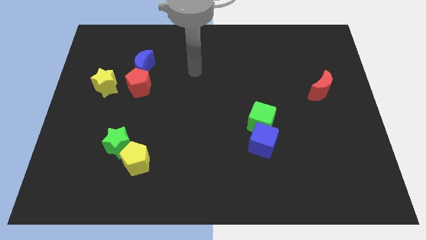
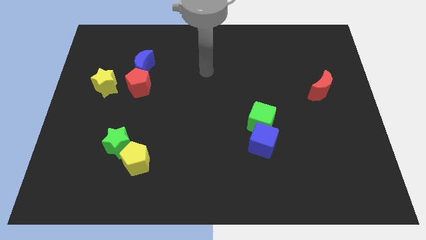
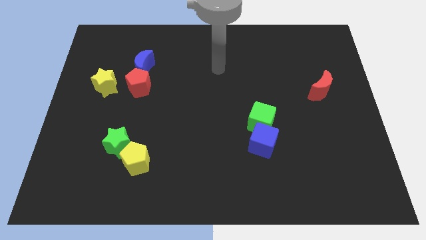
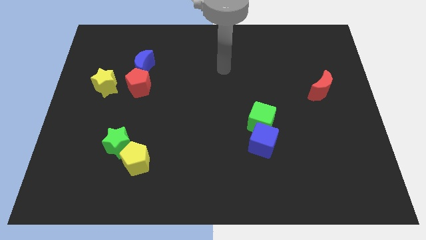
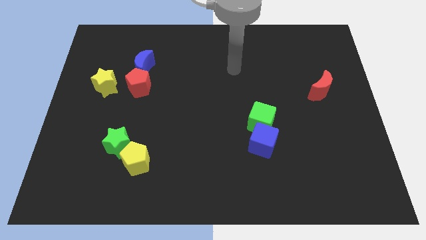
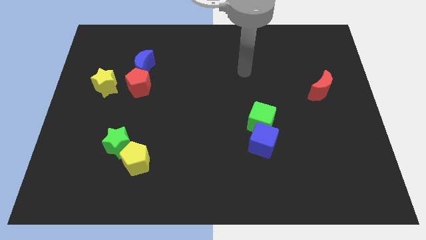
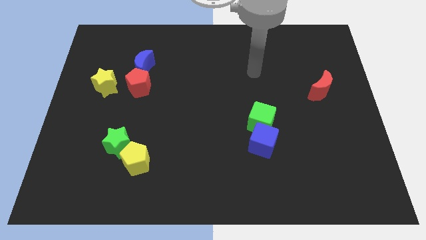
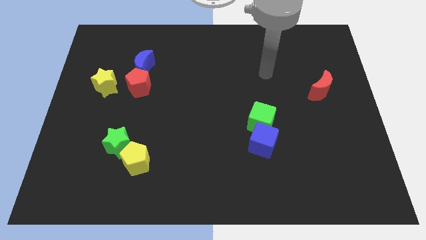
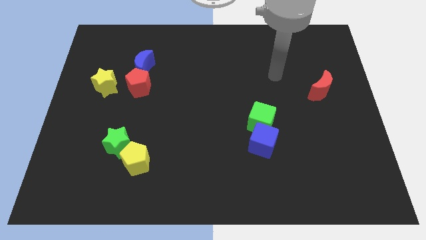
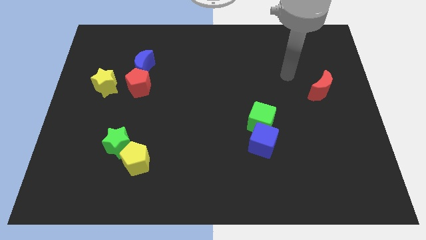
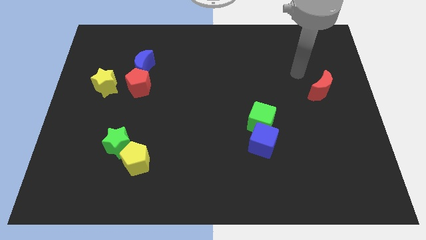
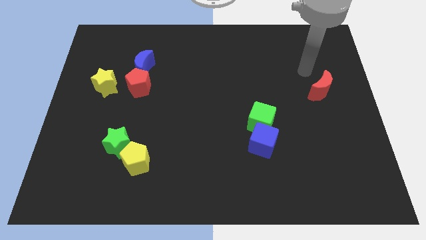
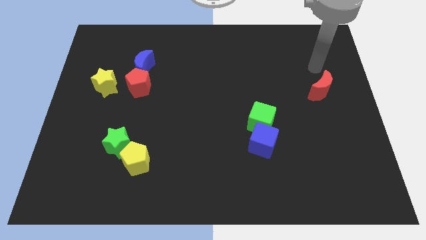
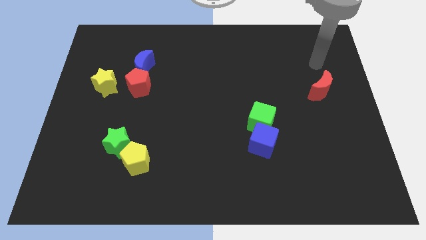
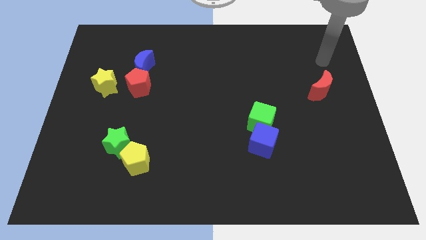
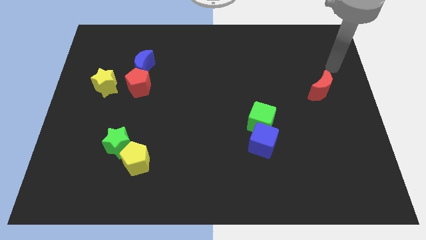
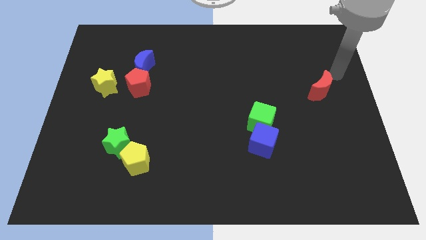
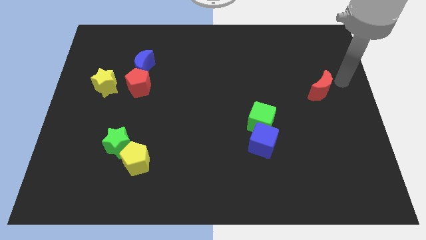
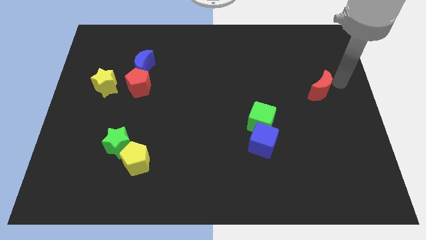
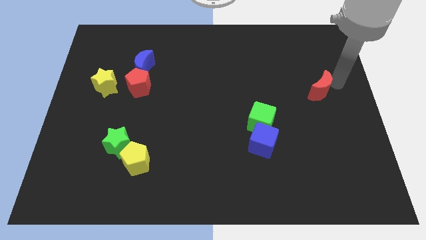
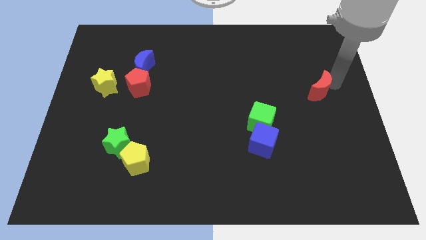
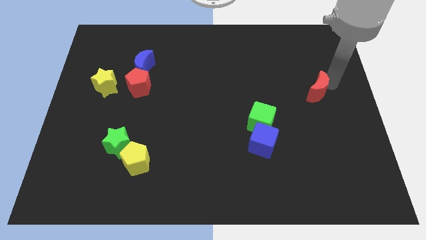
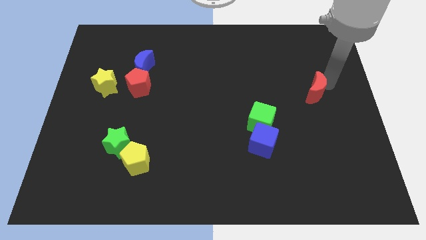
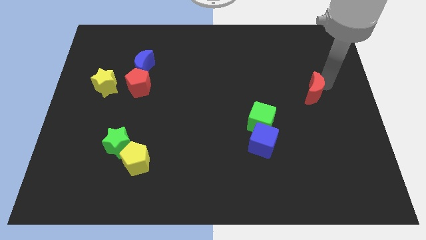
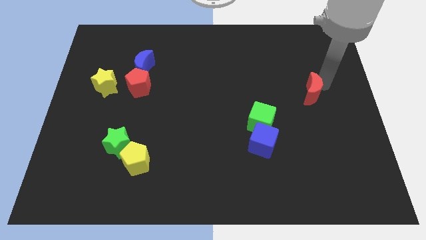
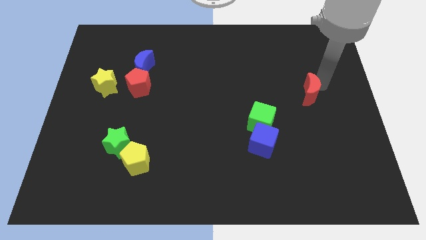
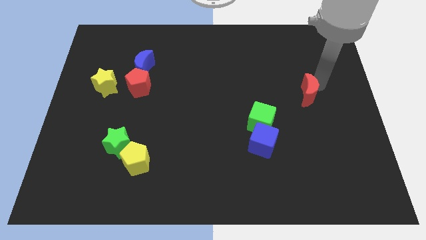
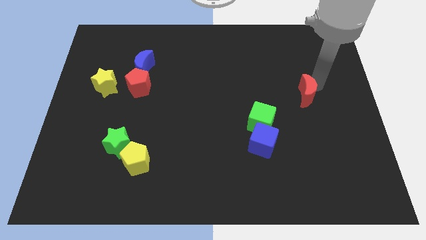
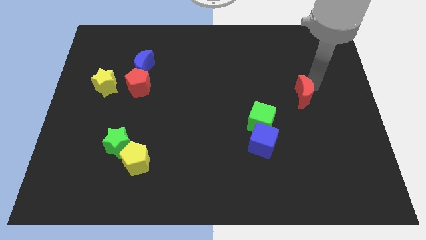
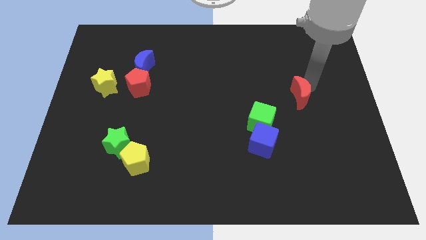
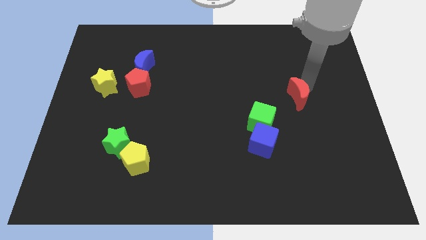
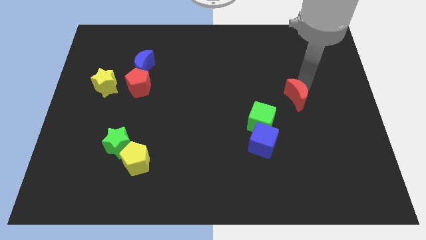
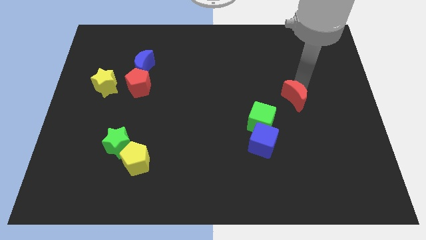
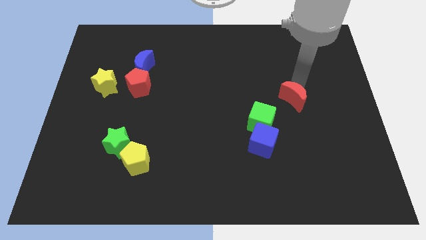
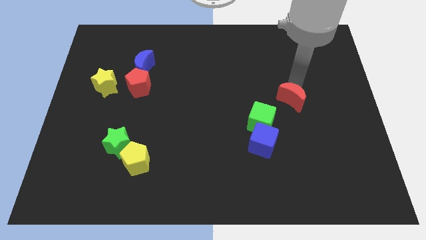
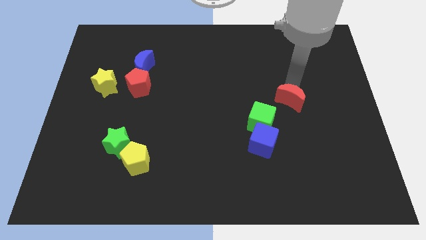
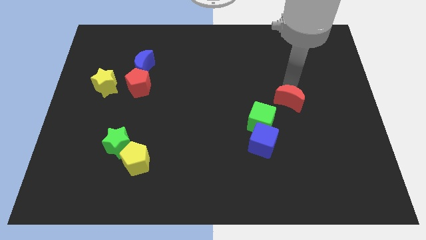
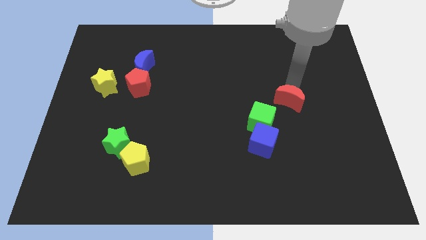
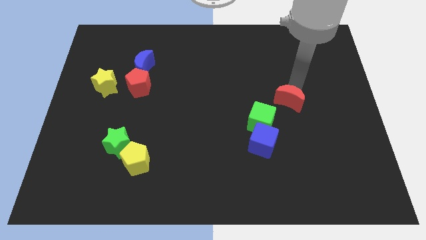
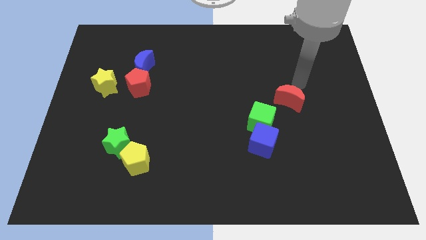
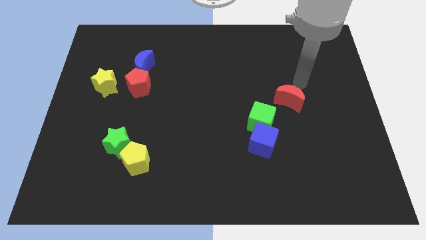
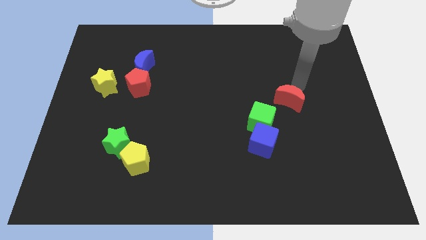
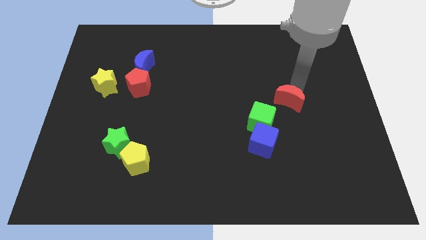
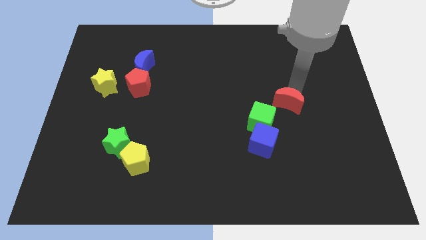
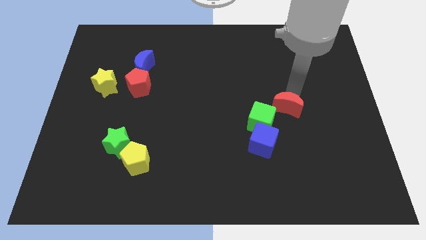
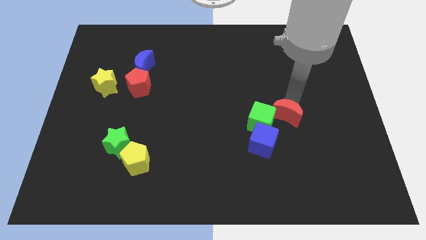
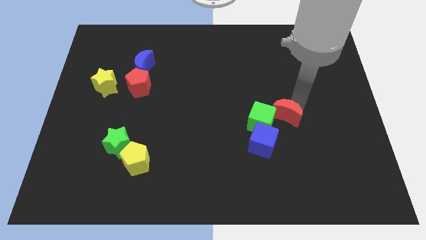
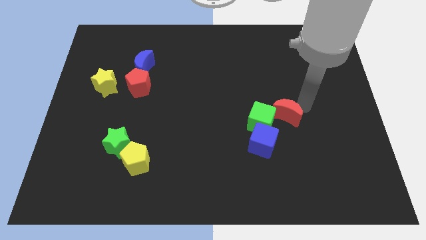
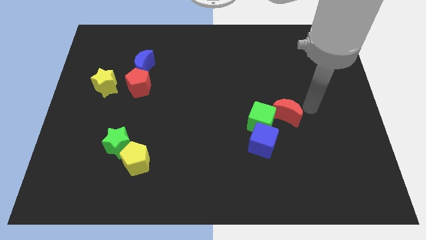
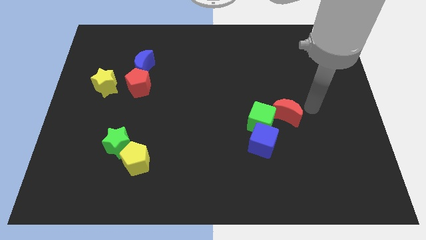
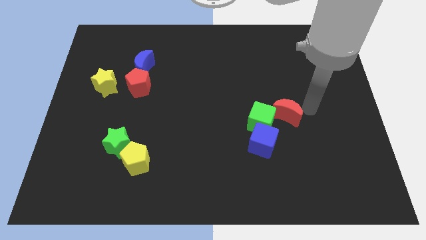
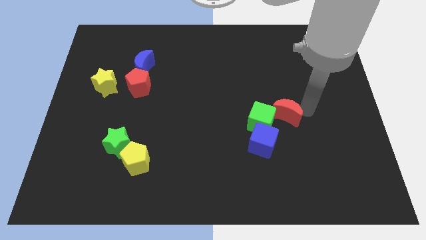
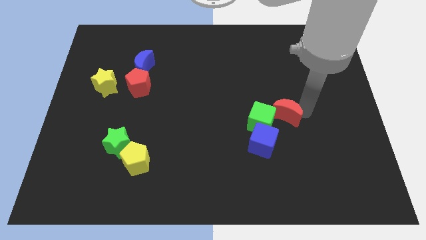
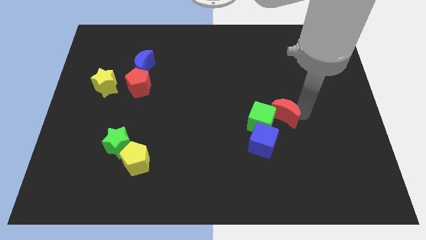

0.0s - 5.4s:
put the red moon next to the green cube

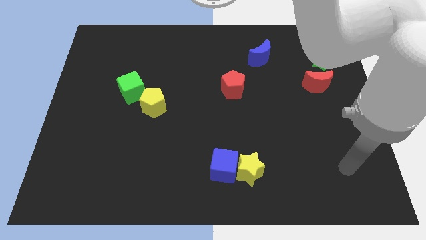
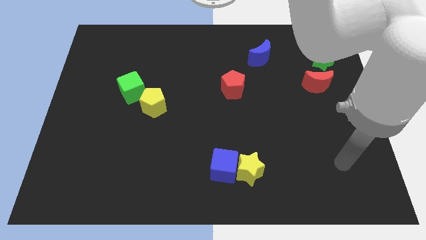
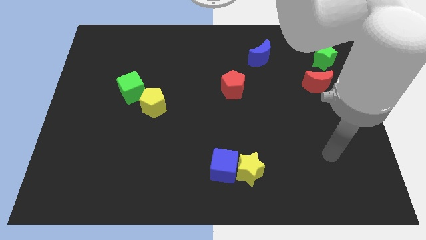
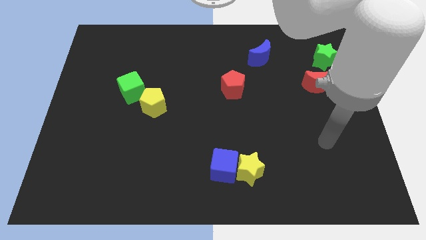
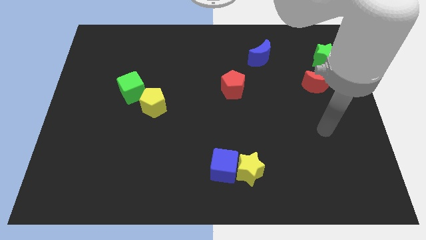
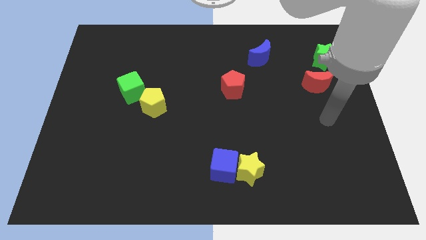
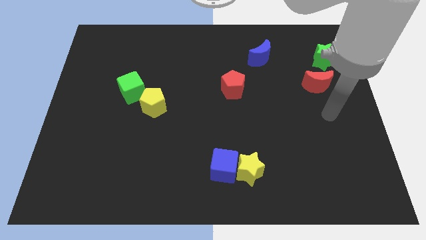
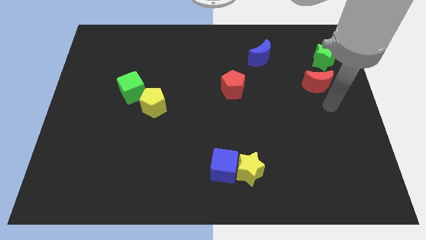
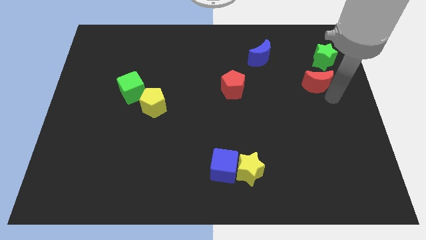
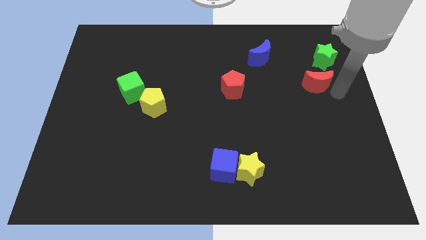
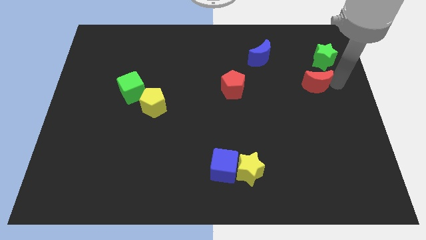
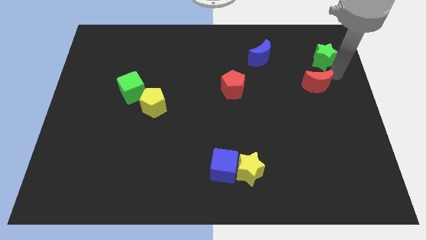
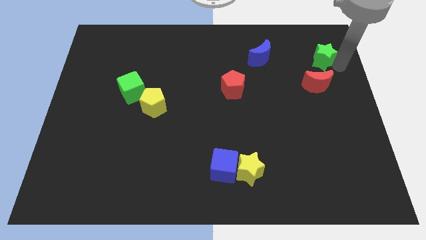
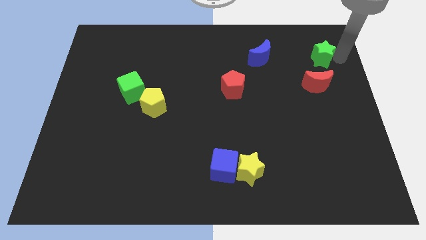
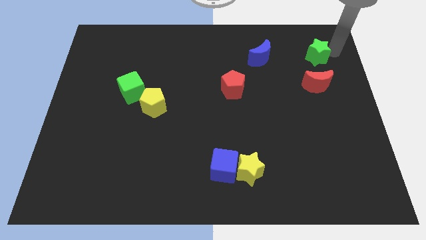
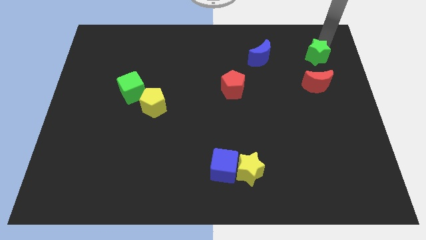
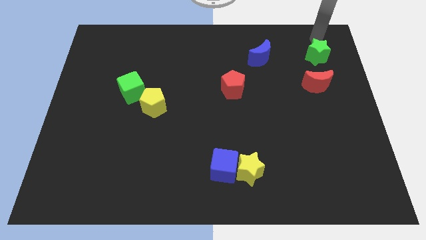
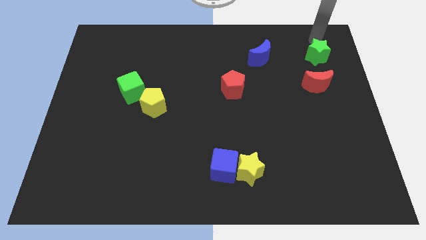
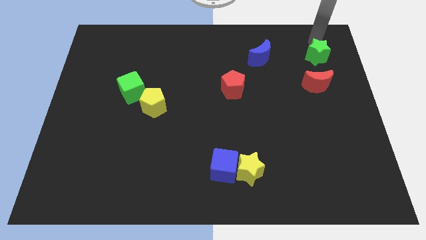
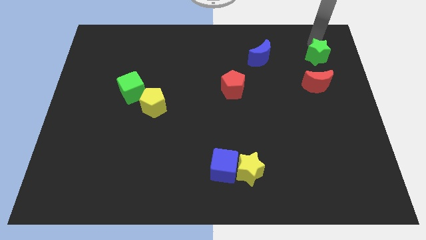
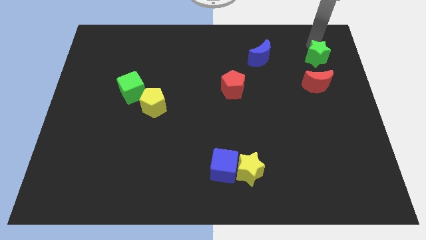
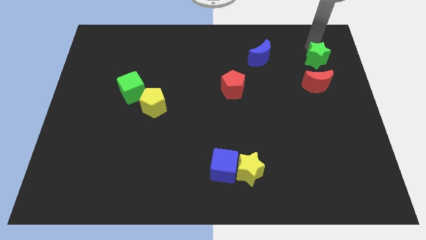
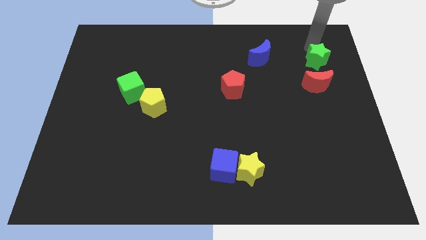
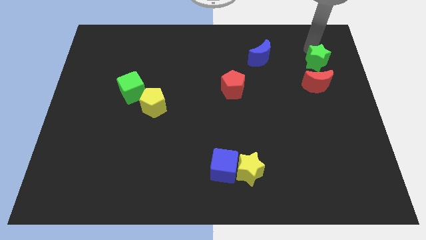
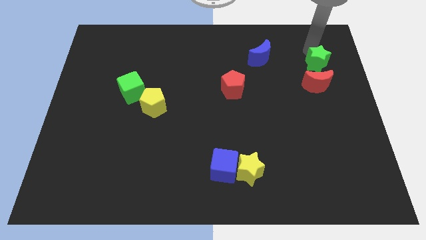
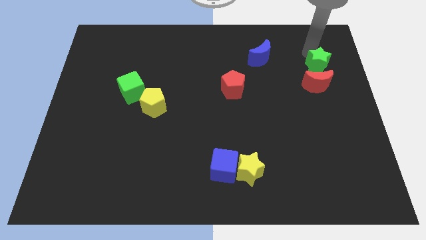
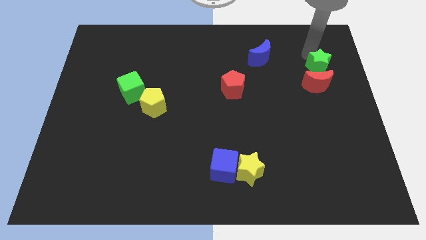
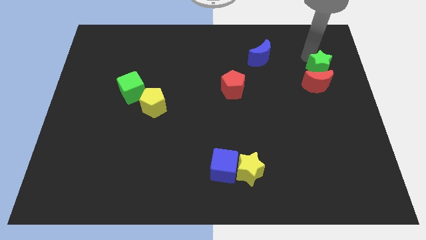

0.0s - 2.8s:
put the green star to the red moon
